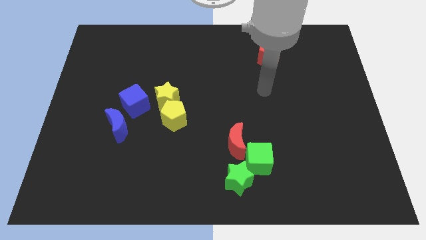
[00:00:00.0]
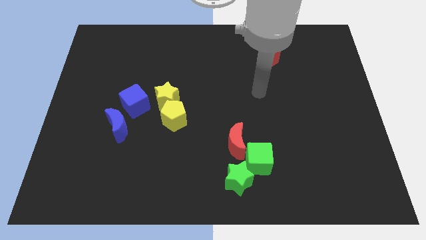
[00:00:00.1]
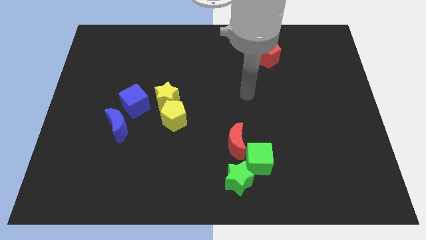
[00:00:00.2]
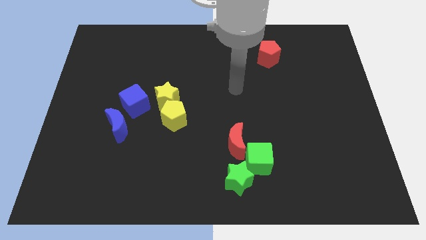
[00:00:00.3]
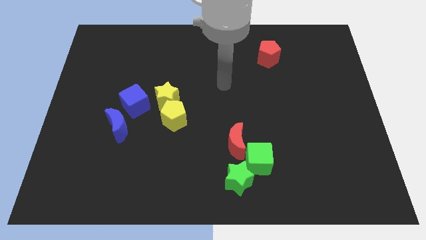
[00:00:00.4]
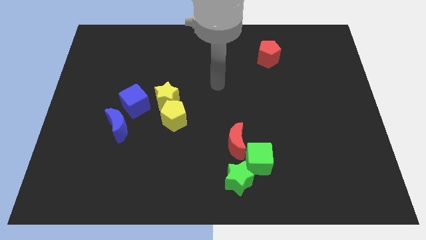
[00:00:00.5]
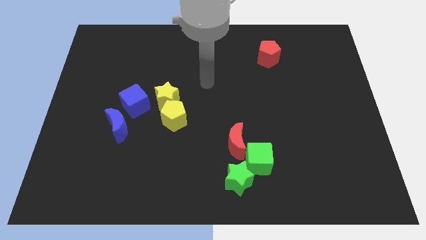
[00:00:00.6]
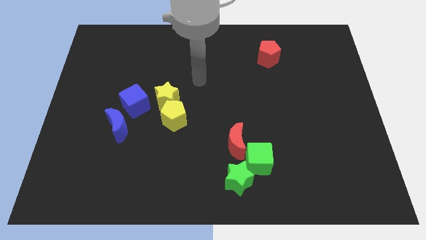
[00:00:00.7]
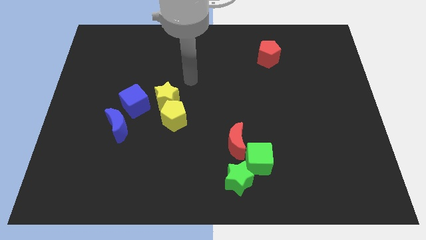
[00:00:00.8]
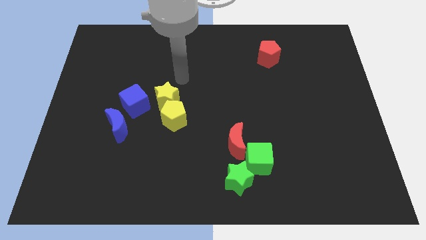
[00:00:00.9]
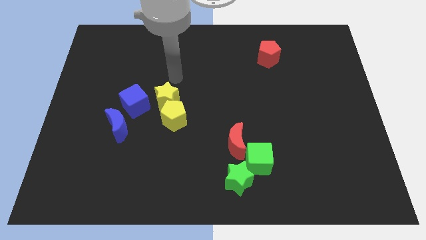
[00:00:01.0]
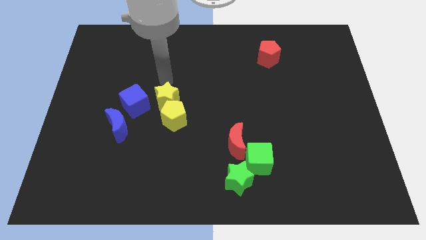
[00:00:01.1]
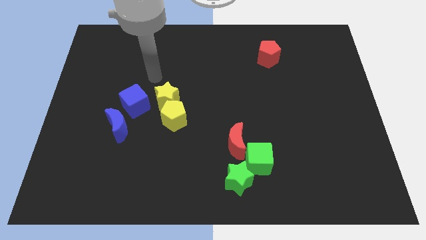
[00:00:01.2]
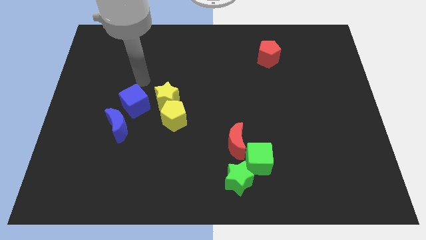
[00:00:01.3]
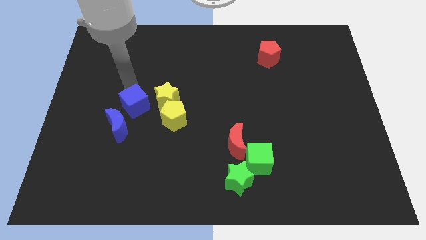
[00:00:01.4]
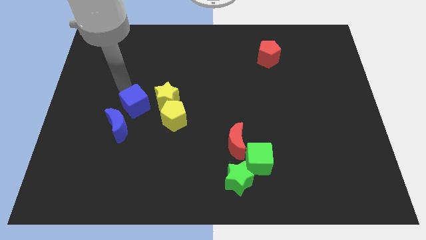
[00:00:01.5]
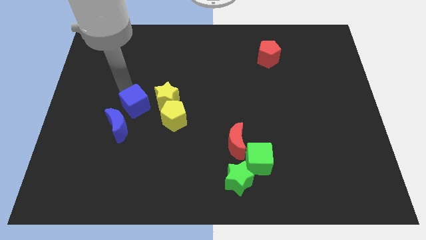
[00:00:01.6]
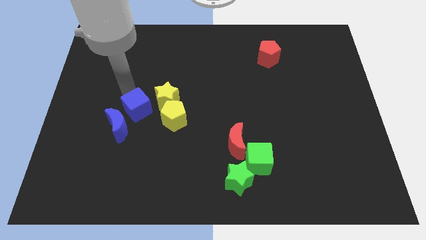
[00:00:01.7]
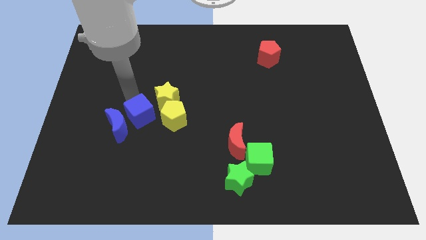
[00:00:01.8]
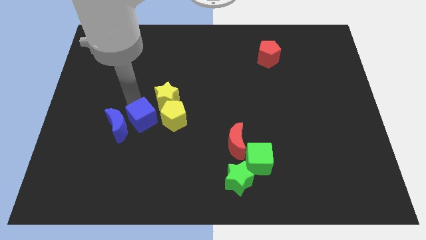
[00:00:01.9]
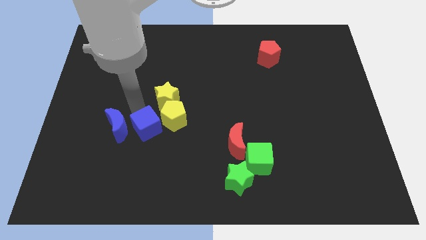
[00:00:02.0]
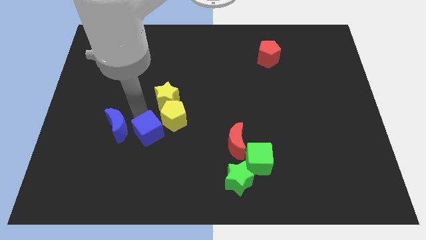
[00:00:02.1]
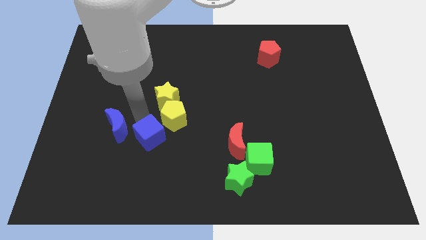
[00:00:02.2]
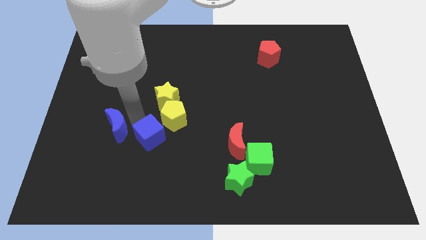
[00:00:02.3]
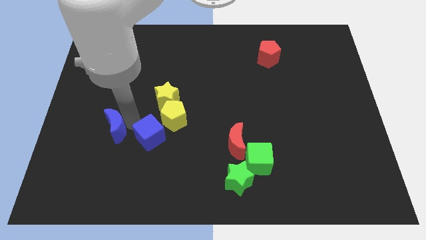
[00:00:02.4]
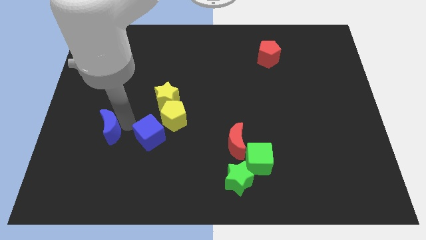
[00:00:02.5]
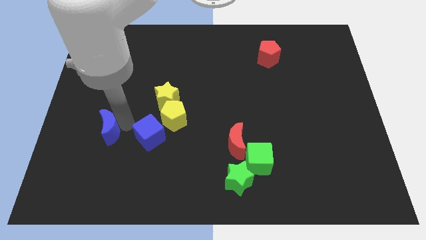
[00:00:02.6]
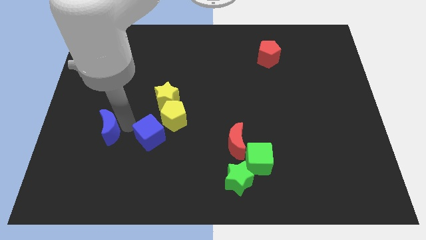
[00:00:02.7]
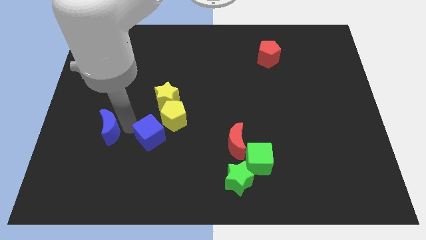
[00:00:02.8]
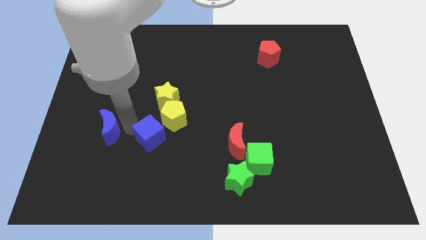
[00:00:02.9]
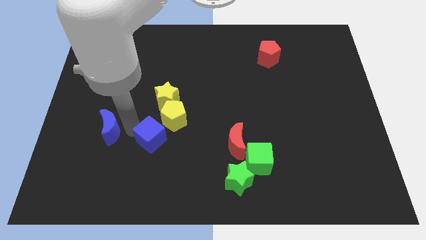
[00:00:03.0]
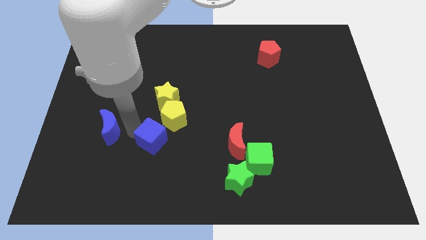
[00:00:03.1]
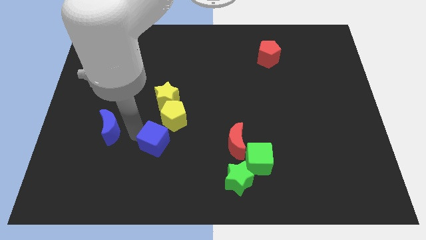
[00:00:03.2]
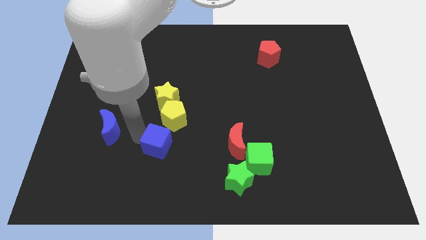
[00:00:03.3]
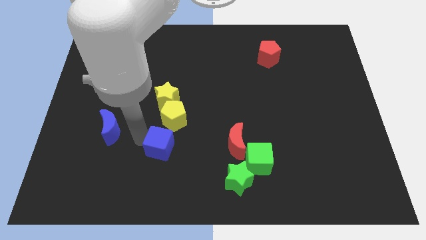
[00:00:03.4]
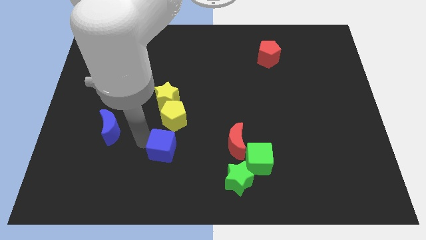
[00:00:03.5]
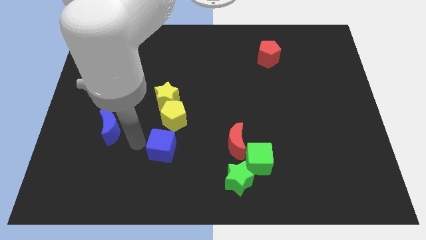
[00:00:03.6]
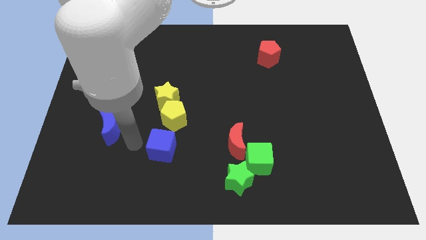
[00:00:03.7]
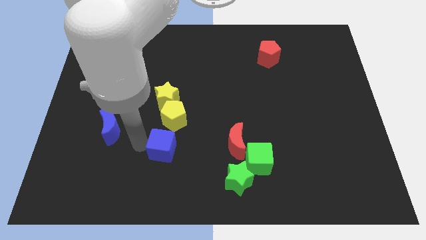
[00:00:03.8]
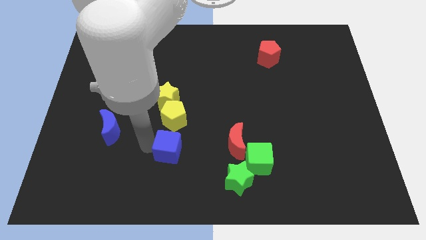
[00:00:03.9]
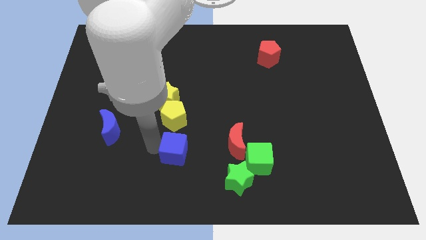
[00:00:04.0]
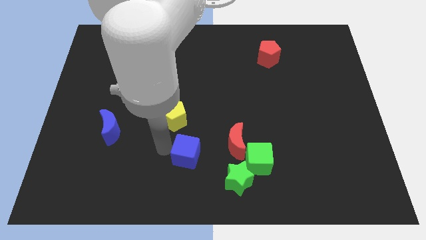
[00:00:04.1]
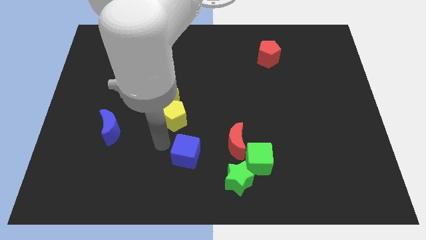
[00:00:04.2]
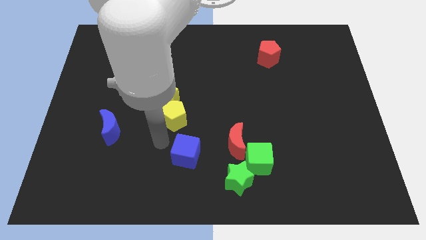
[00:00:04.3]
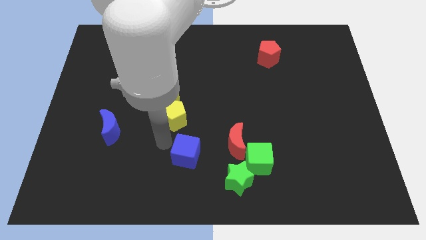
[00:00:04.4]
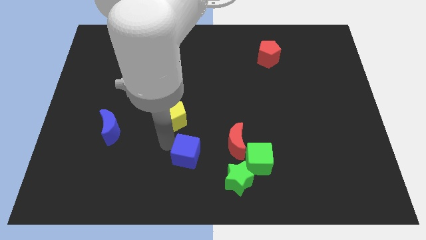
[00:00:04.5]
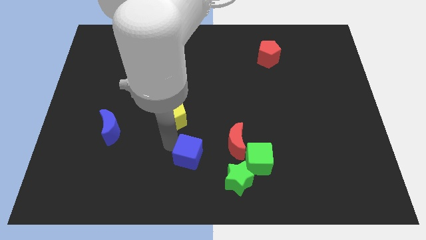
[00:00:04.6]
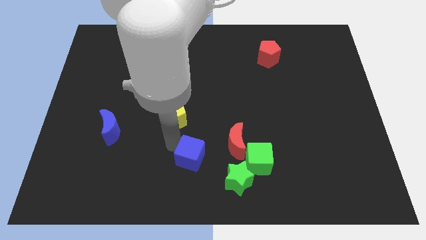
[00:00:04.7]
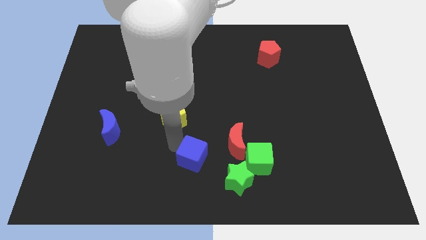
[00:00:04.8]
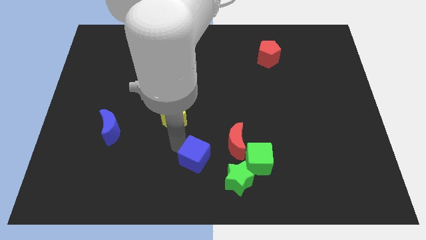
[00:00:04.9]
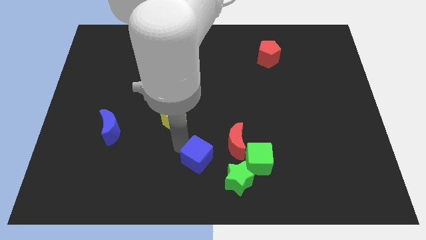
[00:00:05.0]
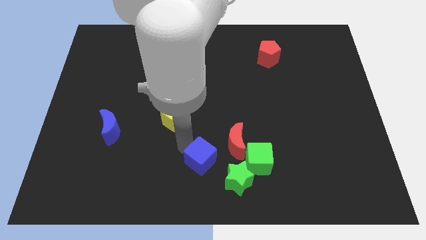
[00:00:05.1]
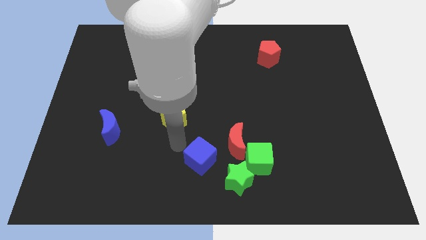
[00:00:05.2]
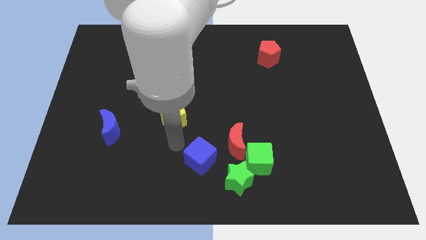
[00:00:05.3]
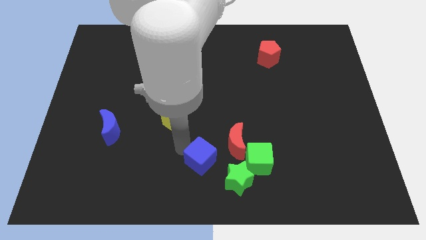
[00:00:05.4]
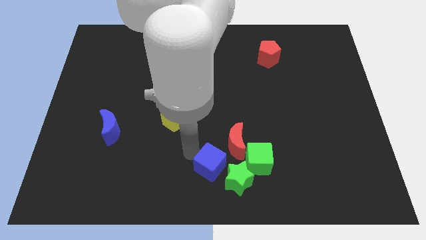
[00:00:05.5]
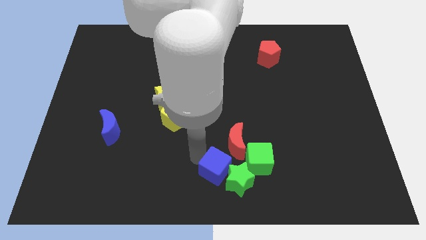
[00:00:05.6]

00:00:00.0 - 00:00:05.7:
move the blue cube towards the green star

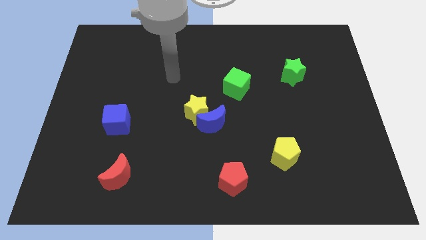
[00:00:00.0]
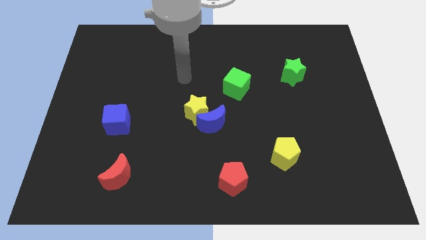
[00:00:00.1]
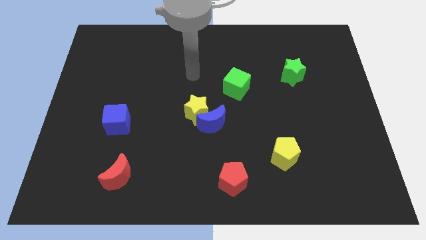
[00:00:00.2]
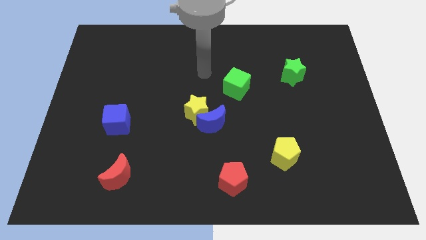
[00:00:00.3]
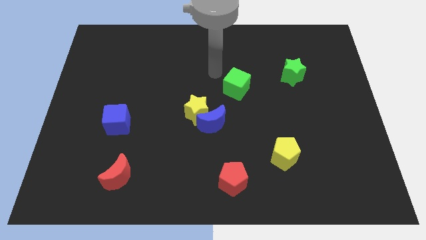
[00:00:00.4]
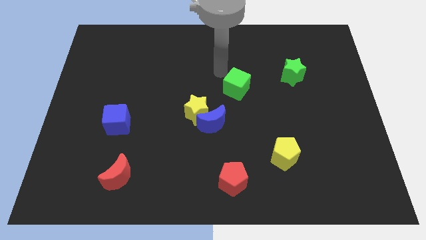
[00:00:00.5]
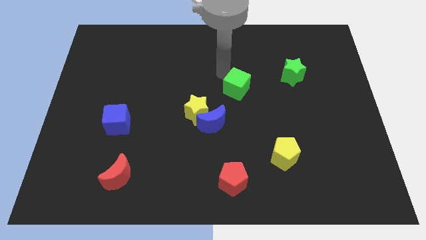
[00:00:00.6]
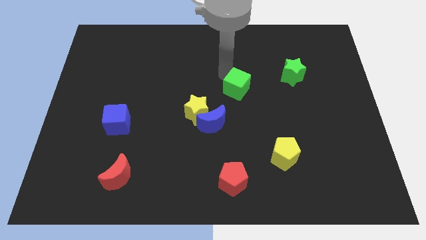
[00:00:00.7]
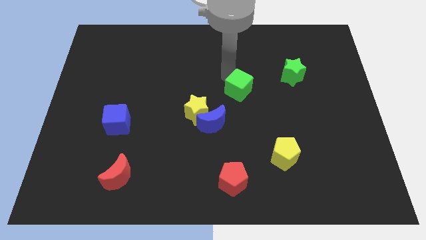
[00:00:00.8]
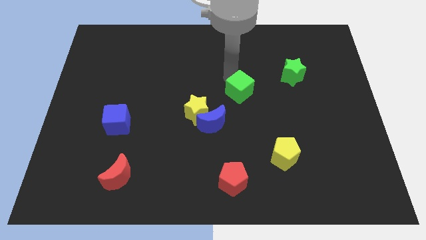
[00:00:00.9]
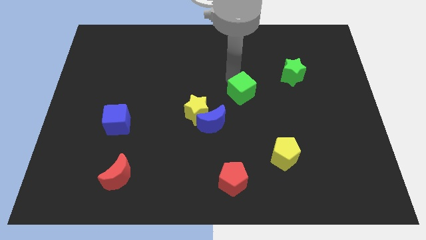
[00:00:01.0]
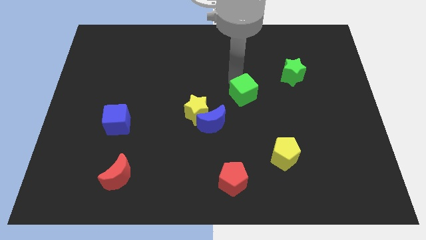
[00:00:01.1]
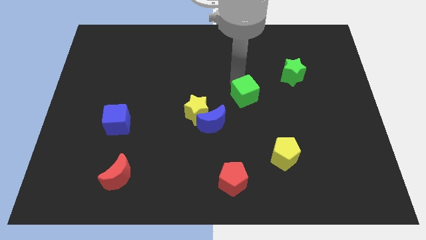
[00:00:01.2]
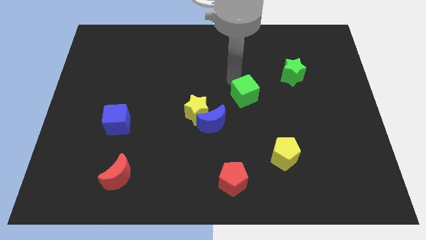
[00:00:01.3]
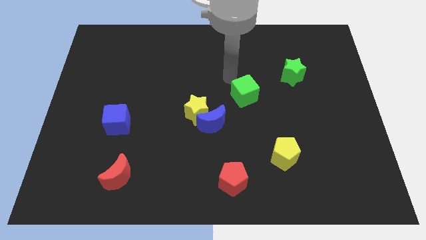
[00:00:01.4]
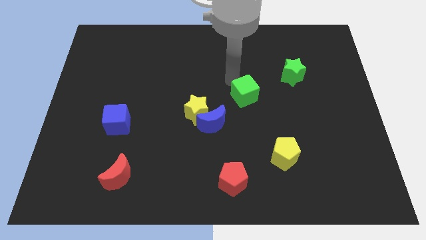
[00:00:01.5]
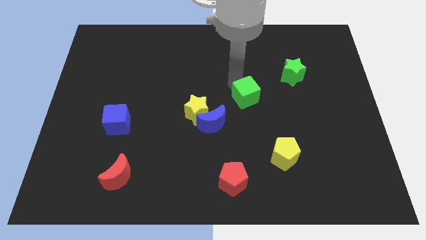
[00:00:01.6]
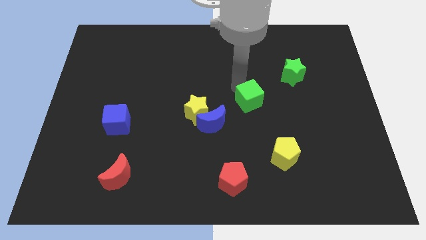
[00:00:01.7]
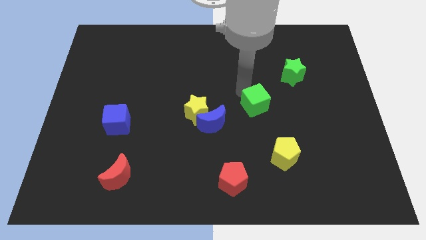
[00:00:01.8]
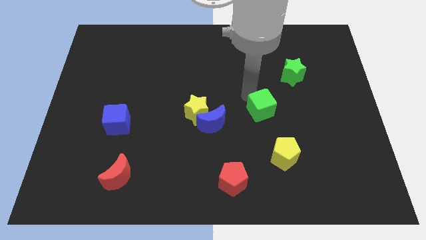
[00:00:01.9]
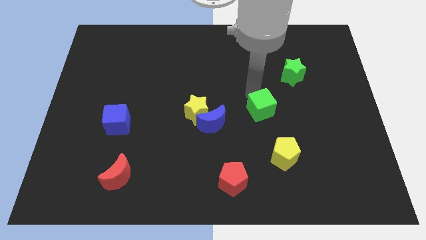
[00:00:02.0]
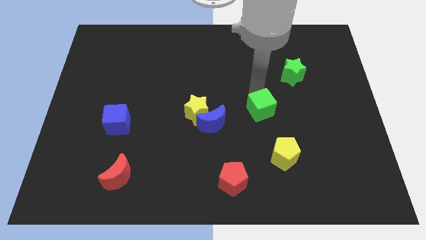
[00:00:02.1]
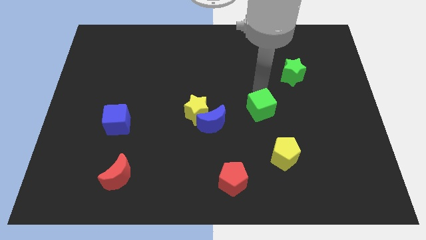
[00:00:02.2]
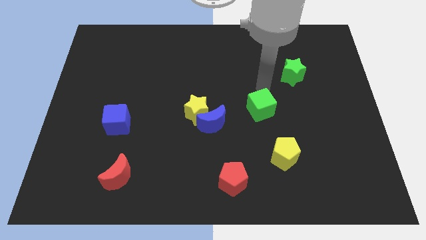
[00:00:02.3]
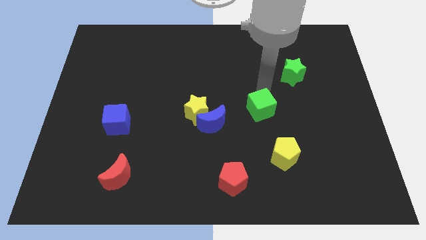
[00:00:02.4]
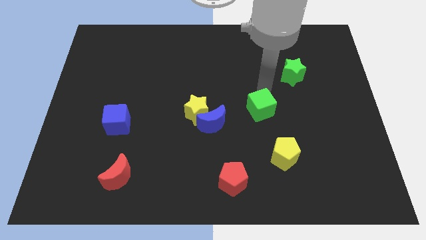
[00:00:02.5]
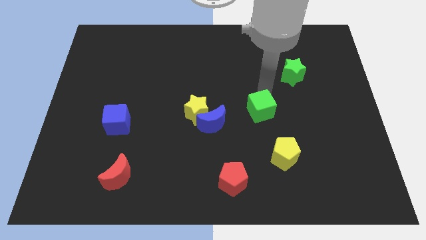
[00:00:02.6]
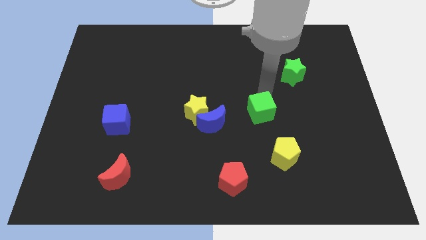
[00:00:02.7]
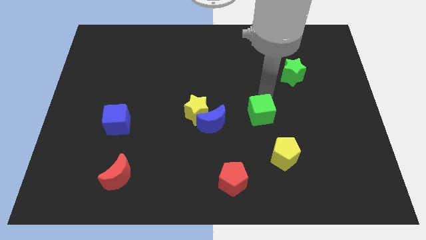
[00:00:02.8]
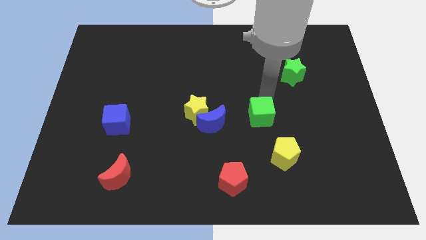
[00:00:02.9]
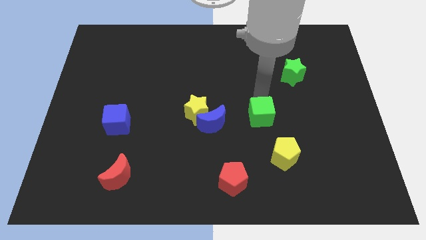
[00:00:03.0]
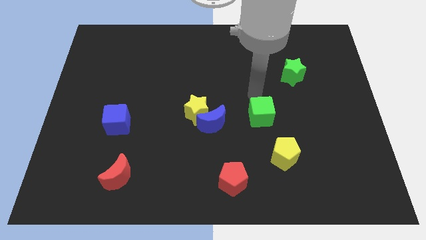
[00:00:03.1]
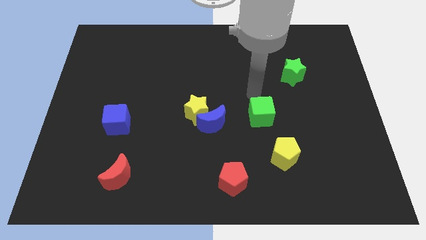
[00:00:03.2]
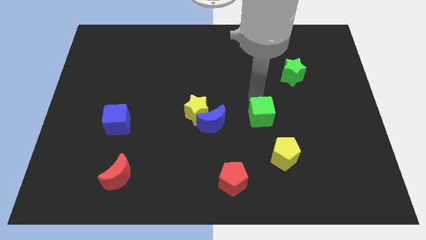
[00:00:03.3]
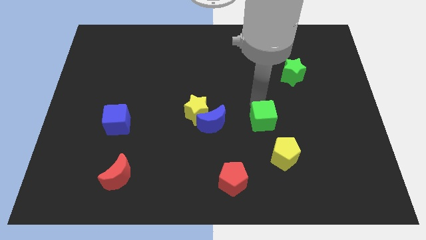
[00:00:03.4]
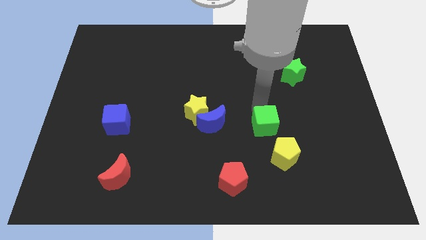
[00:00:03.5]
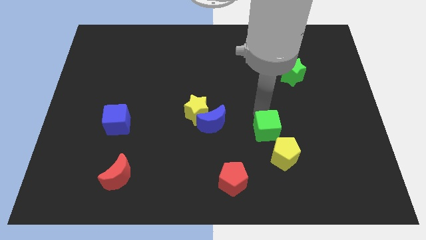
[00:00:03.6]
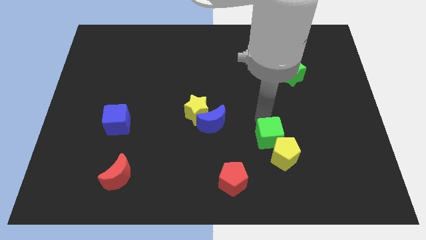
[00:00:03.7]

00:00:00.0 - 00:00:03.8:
push the green cube to the yellow pentagon
